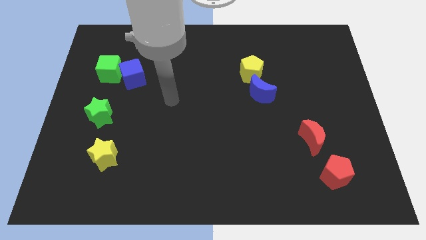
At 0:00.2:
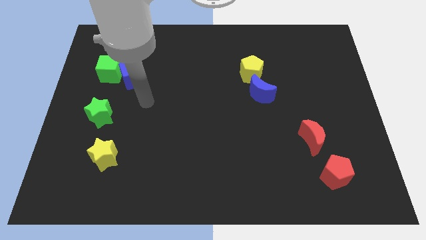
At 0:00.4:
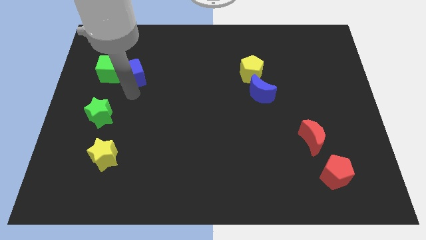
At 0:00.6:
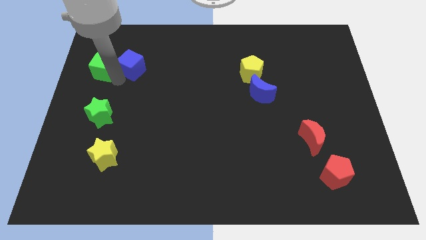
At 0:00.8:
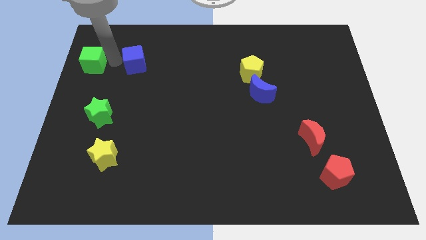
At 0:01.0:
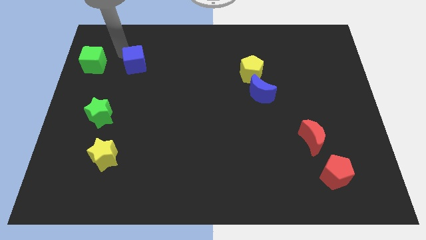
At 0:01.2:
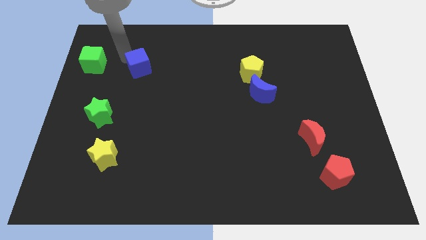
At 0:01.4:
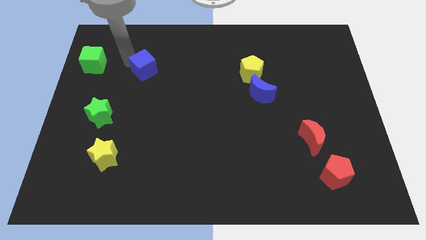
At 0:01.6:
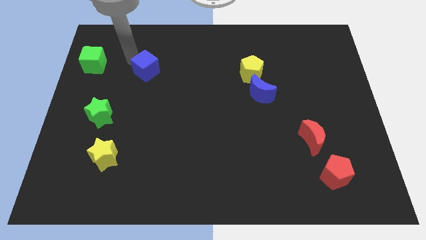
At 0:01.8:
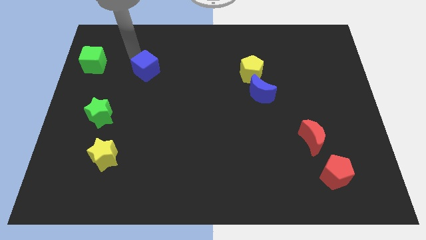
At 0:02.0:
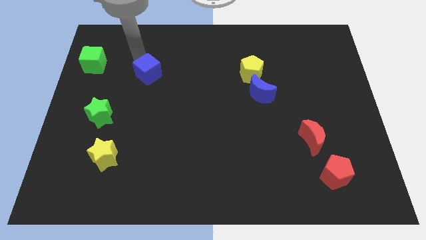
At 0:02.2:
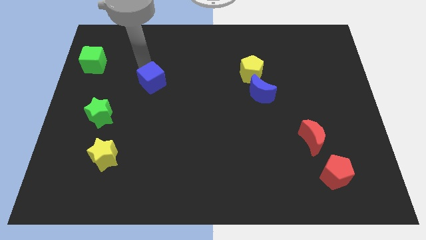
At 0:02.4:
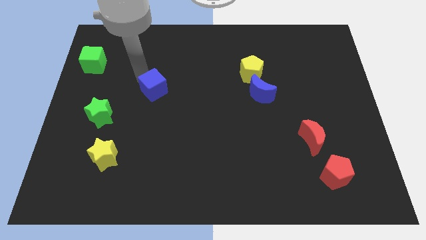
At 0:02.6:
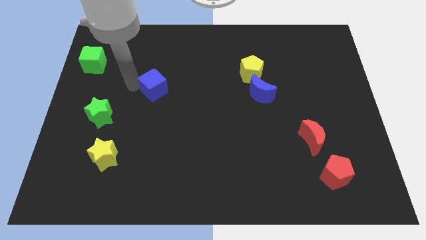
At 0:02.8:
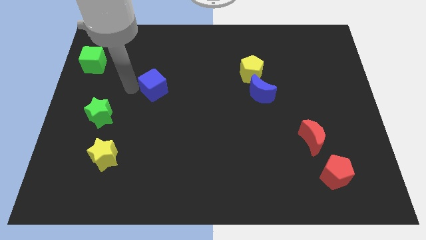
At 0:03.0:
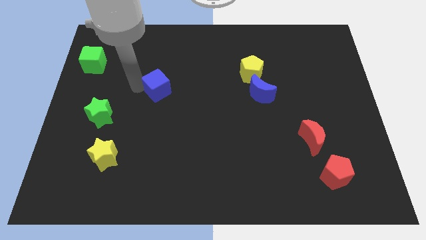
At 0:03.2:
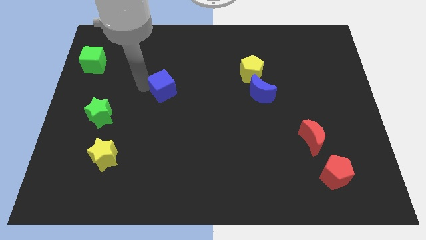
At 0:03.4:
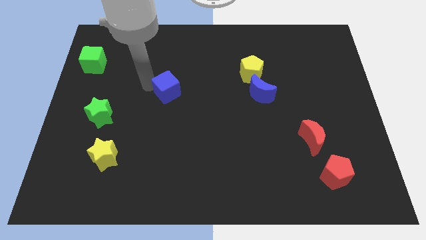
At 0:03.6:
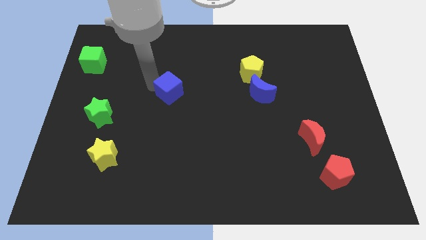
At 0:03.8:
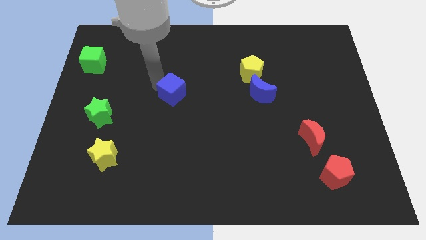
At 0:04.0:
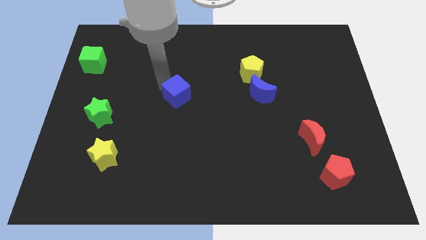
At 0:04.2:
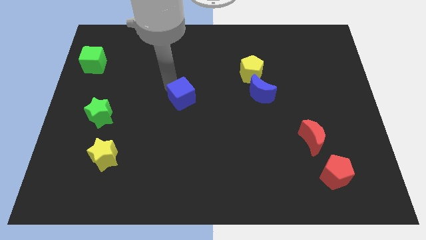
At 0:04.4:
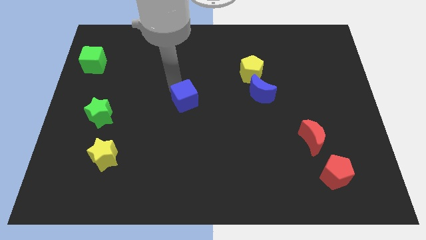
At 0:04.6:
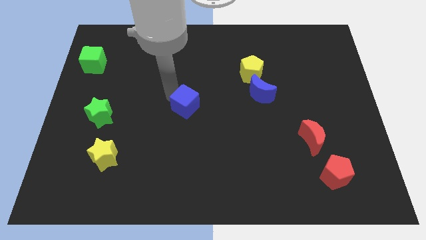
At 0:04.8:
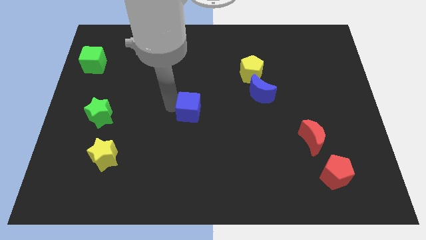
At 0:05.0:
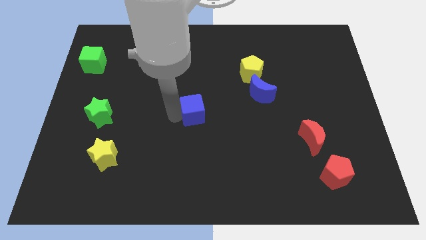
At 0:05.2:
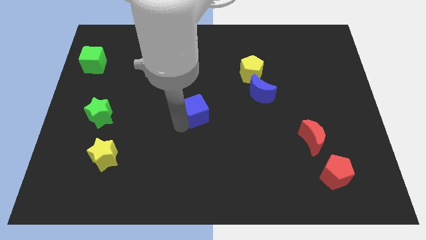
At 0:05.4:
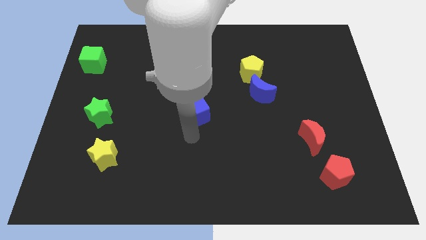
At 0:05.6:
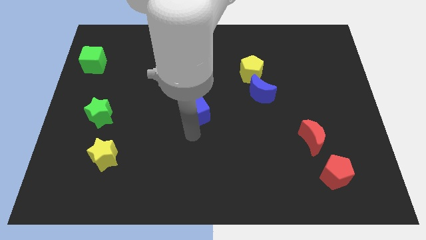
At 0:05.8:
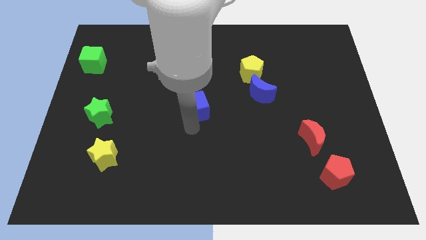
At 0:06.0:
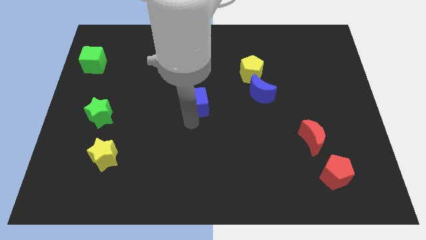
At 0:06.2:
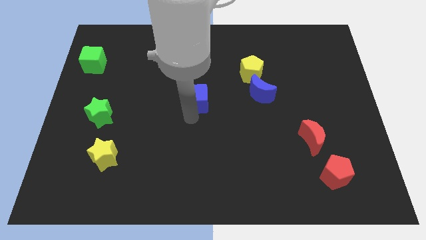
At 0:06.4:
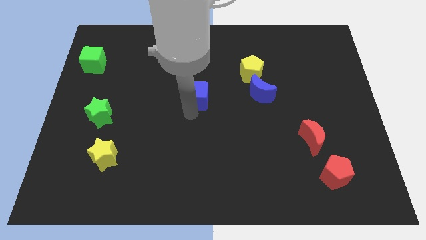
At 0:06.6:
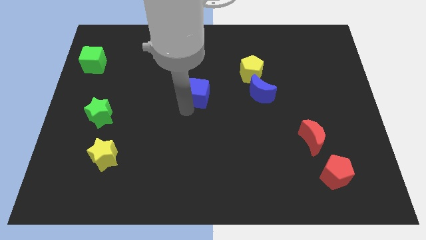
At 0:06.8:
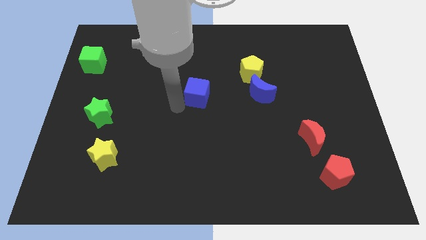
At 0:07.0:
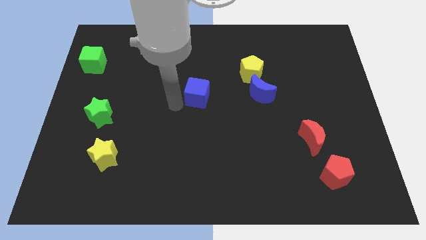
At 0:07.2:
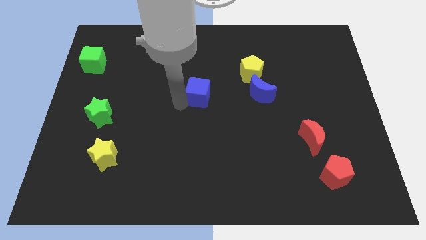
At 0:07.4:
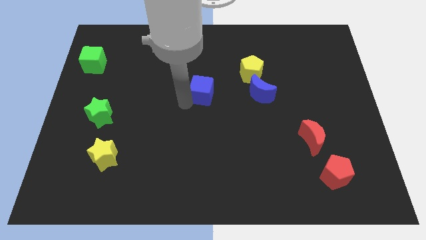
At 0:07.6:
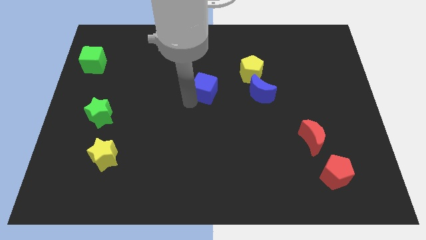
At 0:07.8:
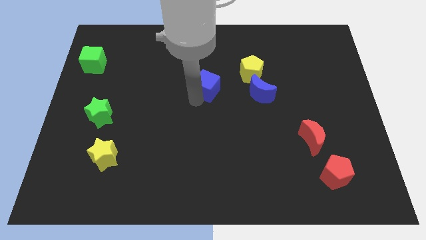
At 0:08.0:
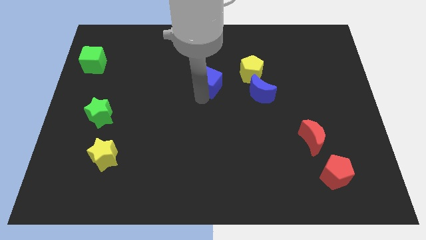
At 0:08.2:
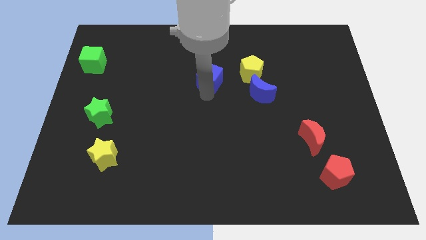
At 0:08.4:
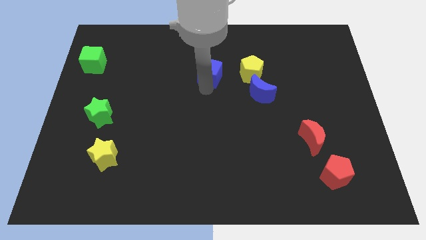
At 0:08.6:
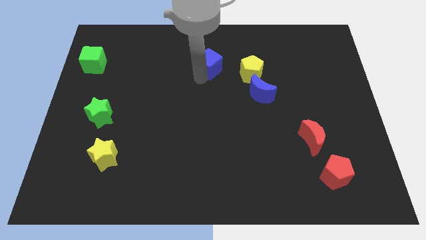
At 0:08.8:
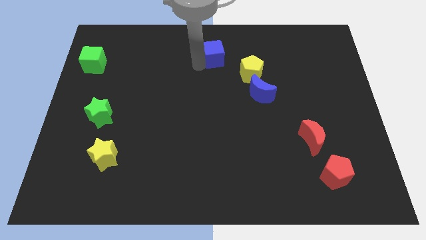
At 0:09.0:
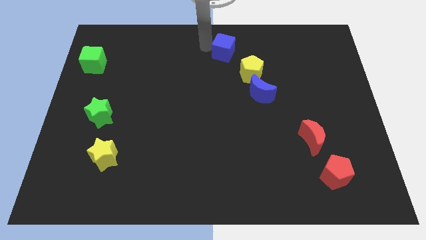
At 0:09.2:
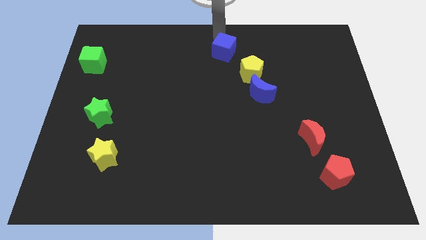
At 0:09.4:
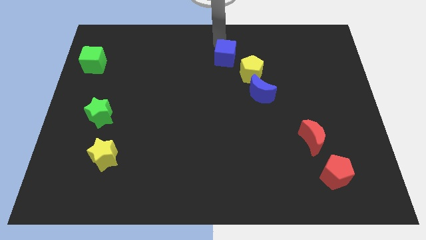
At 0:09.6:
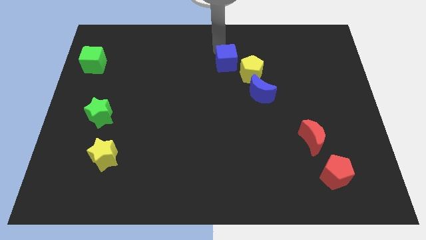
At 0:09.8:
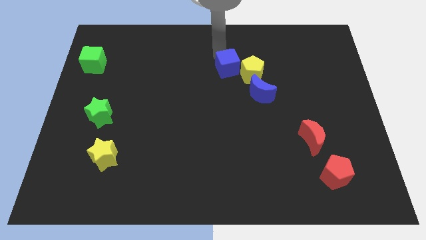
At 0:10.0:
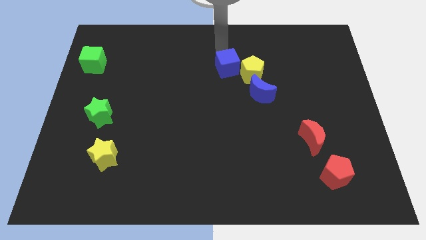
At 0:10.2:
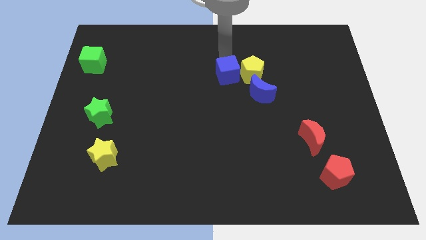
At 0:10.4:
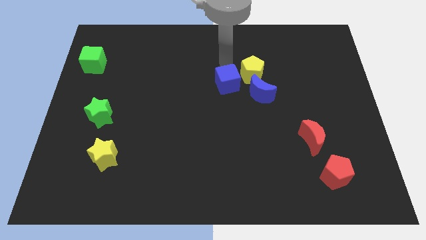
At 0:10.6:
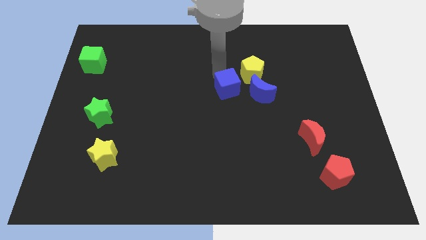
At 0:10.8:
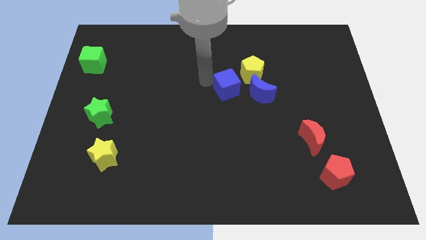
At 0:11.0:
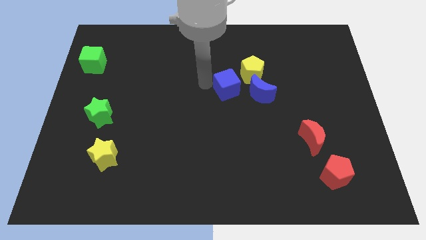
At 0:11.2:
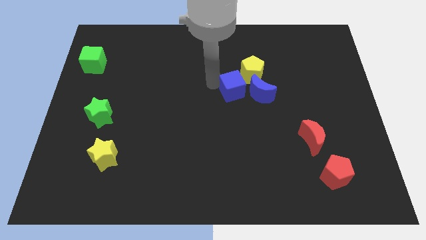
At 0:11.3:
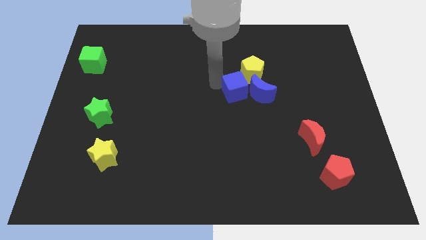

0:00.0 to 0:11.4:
push the blue cube close to the blue moon
